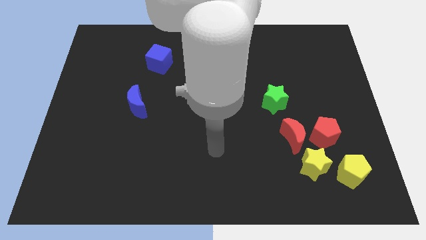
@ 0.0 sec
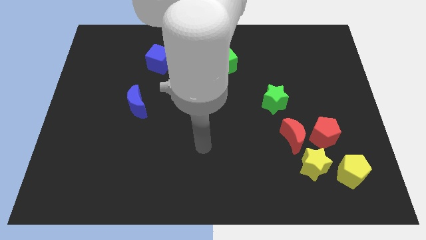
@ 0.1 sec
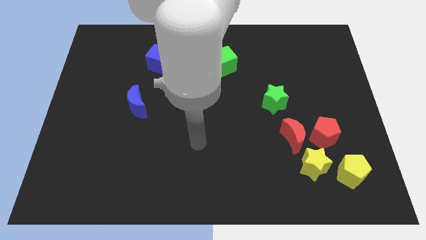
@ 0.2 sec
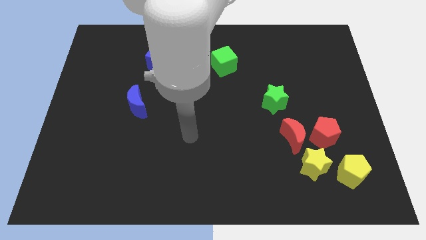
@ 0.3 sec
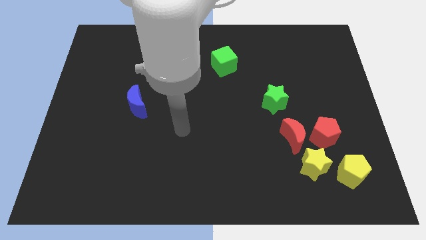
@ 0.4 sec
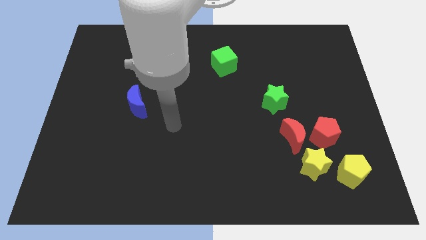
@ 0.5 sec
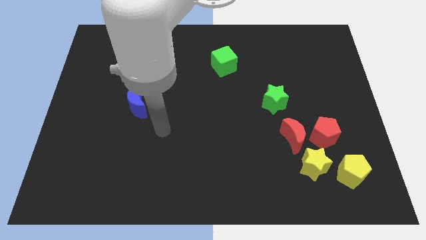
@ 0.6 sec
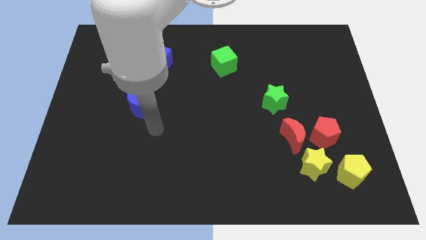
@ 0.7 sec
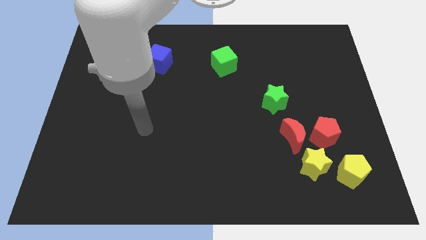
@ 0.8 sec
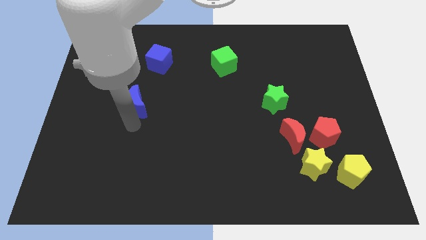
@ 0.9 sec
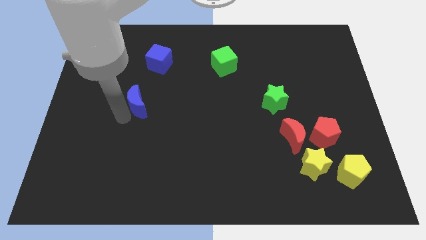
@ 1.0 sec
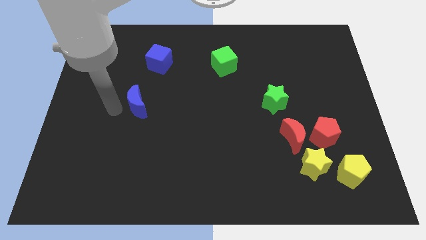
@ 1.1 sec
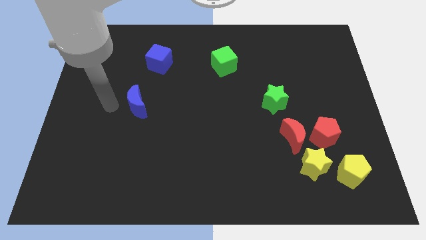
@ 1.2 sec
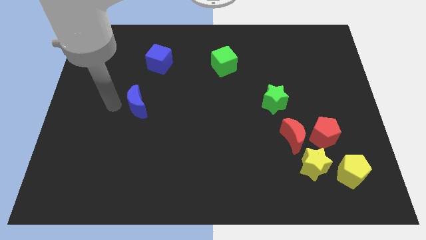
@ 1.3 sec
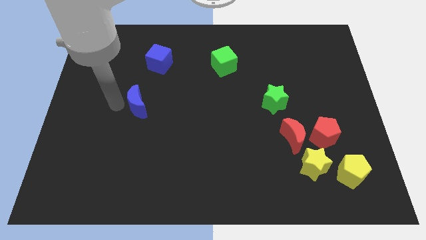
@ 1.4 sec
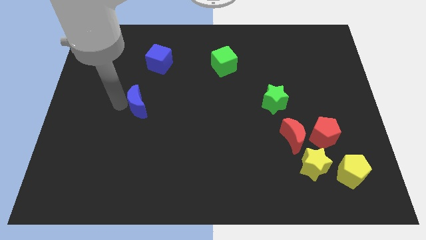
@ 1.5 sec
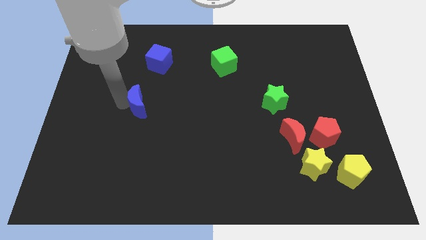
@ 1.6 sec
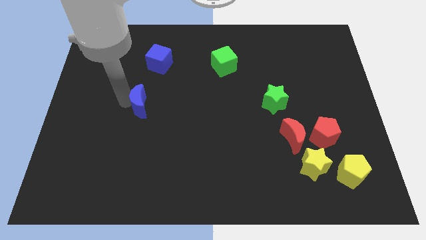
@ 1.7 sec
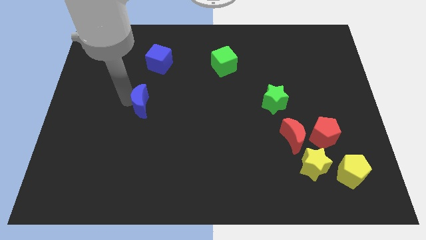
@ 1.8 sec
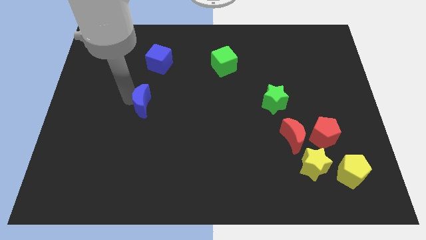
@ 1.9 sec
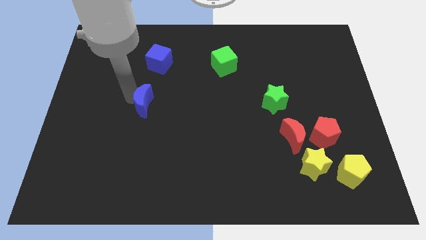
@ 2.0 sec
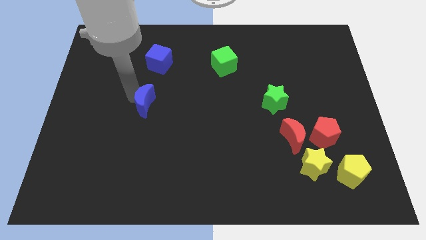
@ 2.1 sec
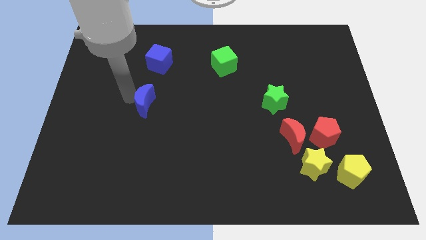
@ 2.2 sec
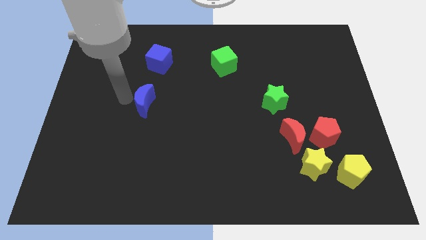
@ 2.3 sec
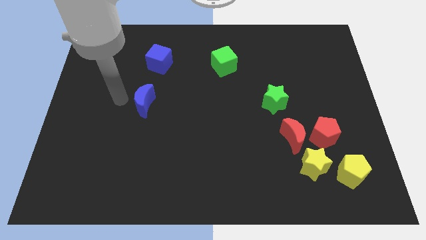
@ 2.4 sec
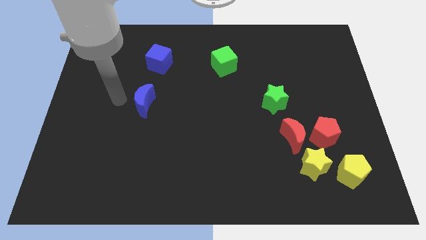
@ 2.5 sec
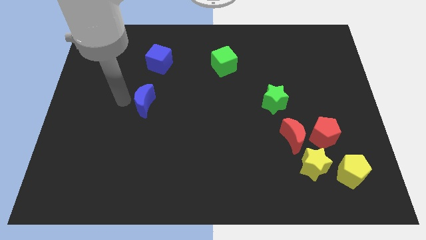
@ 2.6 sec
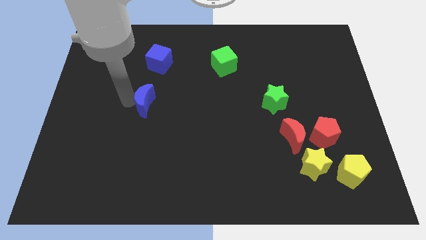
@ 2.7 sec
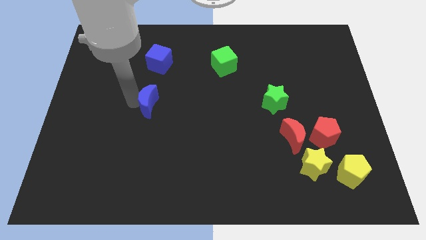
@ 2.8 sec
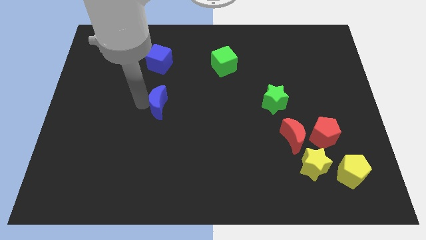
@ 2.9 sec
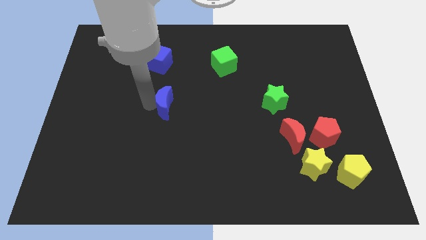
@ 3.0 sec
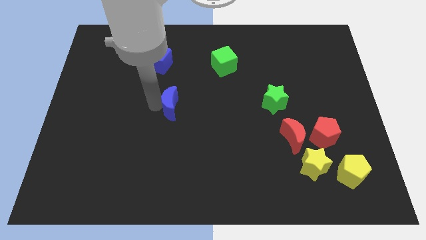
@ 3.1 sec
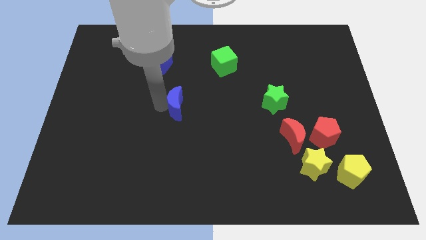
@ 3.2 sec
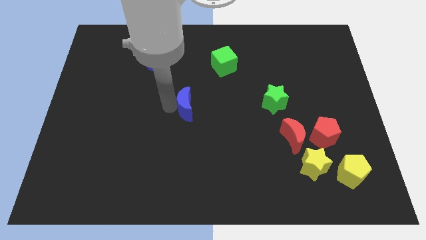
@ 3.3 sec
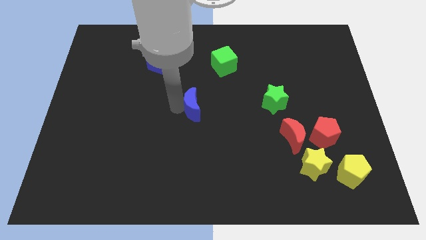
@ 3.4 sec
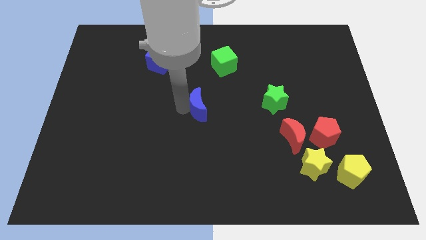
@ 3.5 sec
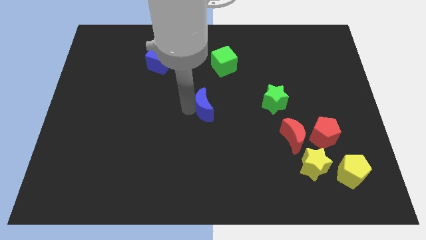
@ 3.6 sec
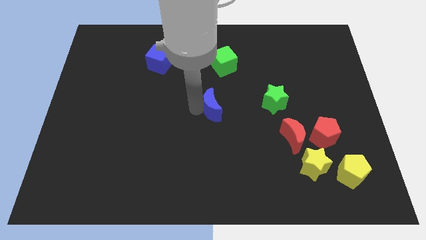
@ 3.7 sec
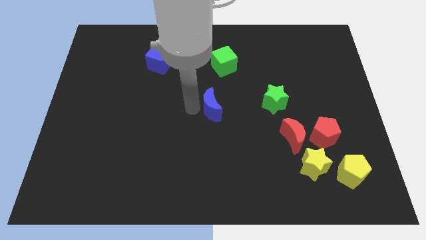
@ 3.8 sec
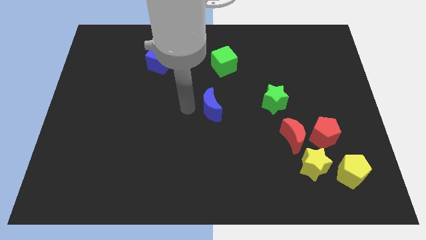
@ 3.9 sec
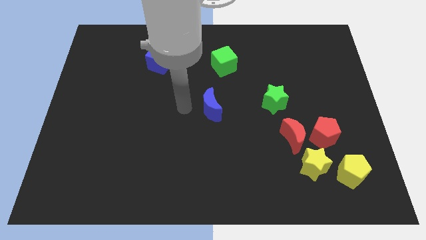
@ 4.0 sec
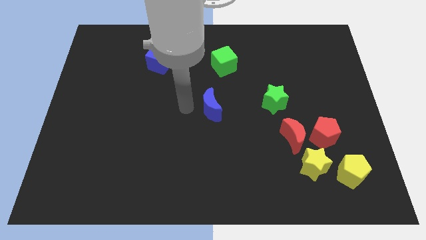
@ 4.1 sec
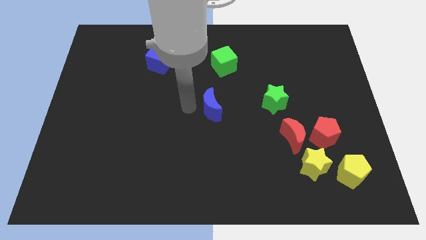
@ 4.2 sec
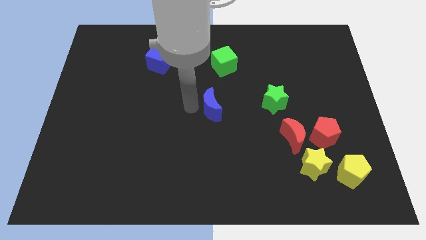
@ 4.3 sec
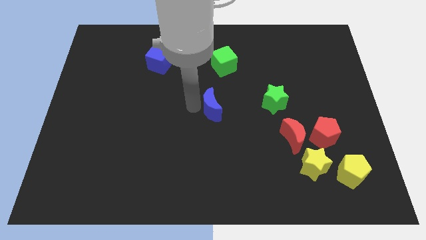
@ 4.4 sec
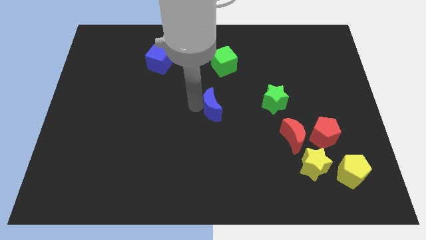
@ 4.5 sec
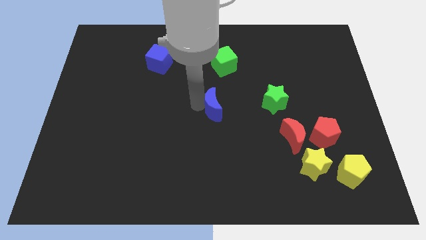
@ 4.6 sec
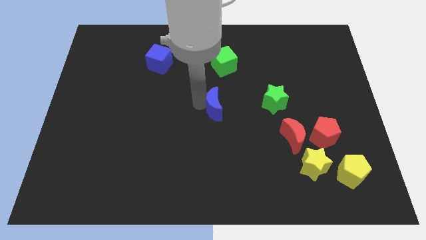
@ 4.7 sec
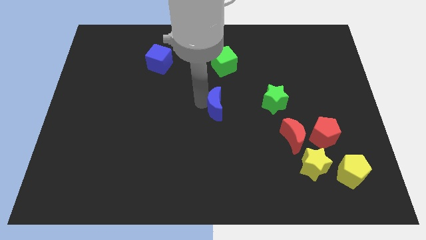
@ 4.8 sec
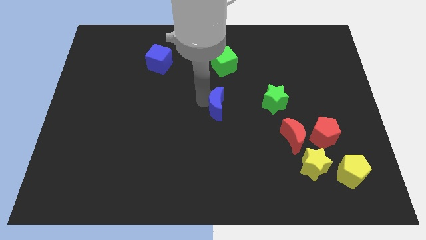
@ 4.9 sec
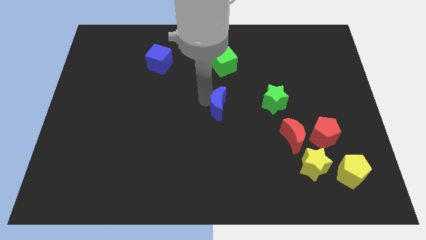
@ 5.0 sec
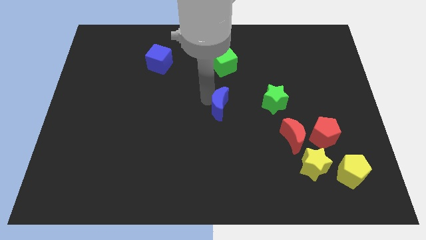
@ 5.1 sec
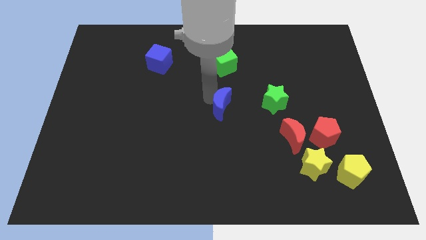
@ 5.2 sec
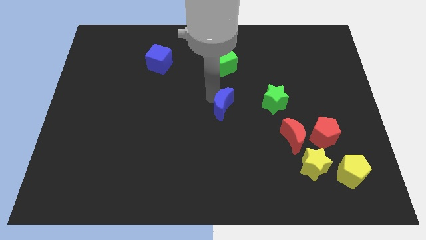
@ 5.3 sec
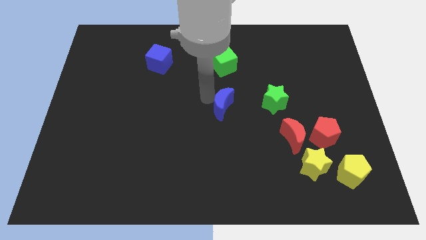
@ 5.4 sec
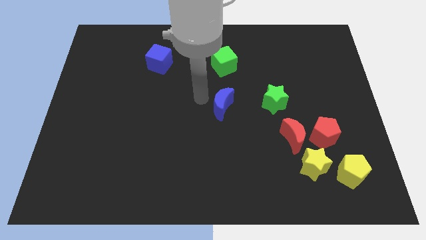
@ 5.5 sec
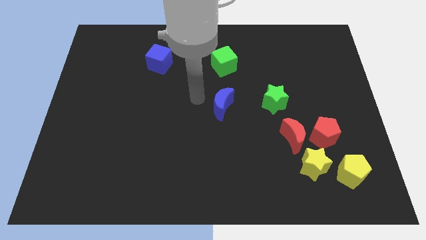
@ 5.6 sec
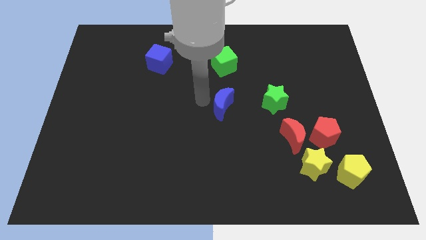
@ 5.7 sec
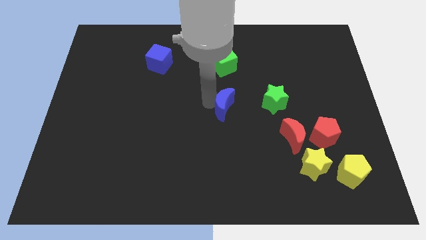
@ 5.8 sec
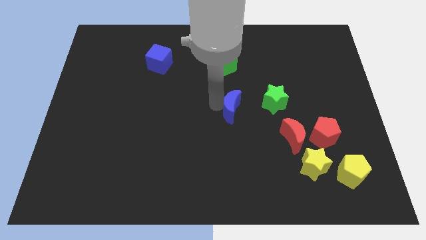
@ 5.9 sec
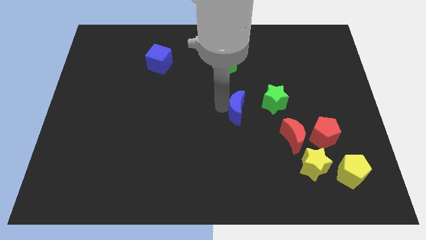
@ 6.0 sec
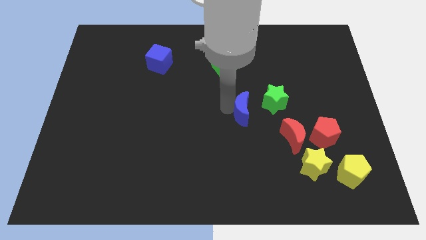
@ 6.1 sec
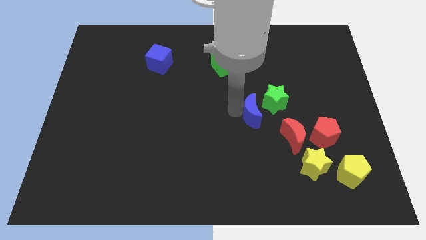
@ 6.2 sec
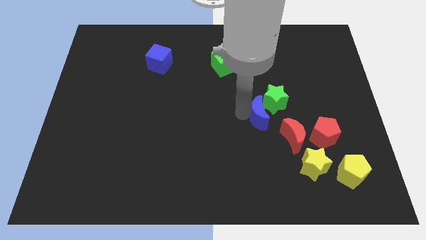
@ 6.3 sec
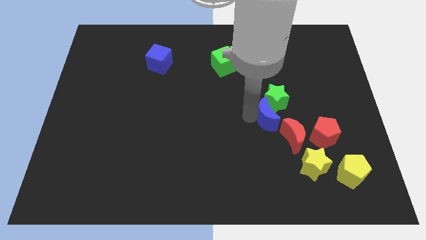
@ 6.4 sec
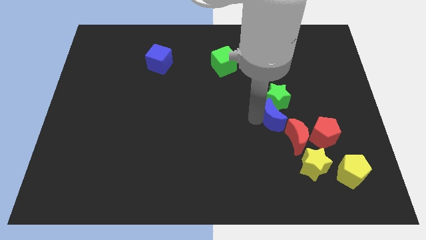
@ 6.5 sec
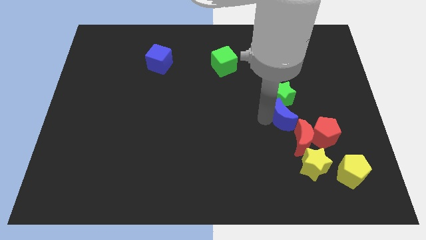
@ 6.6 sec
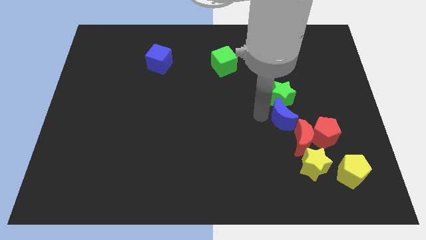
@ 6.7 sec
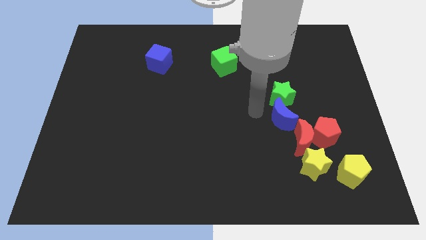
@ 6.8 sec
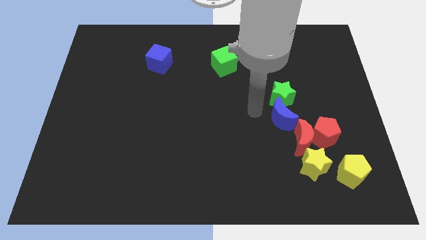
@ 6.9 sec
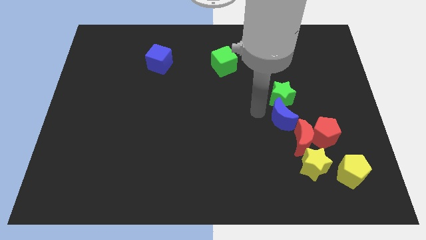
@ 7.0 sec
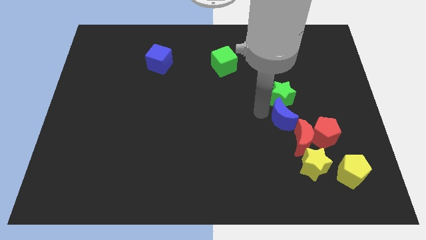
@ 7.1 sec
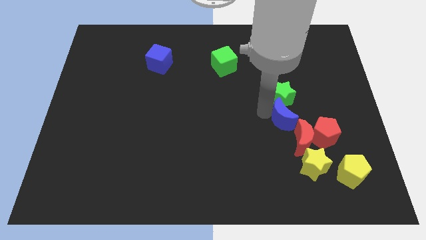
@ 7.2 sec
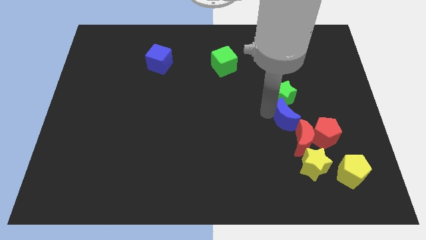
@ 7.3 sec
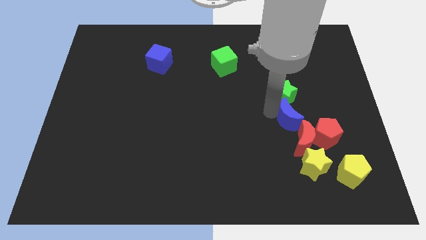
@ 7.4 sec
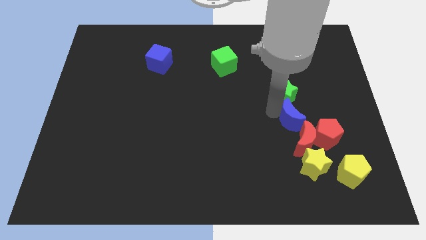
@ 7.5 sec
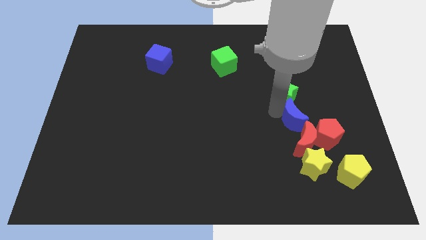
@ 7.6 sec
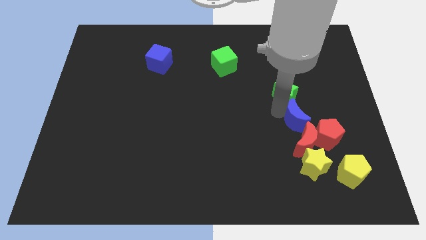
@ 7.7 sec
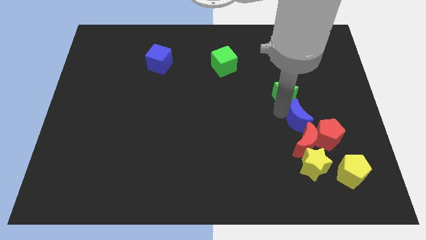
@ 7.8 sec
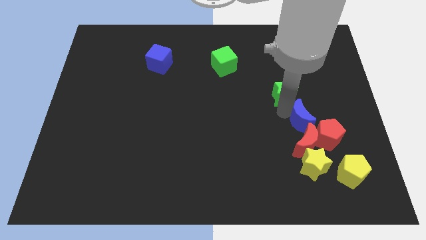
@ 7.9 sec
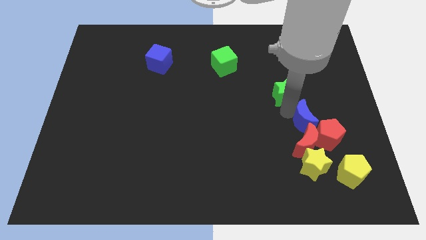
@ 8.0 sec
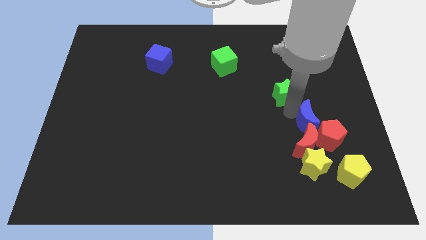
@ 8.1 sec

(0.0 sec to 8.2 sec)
push the blue moon towards the red pentagon
